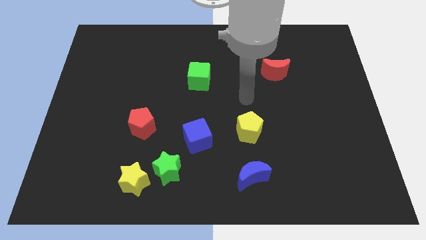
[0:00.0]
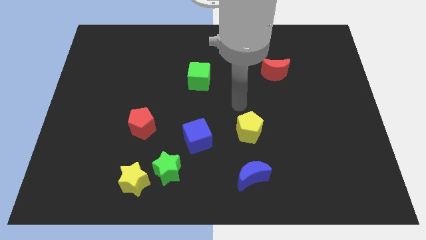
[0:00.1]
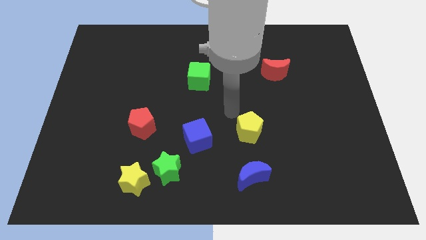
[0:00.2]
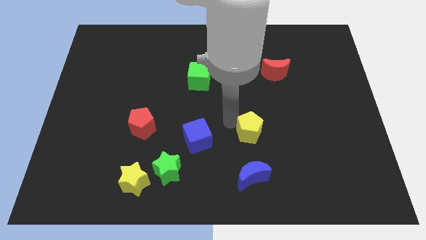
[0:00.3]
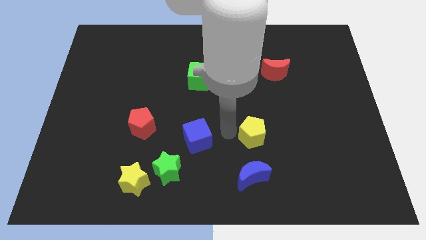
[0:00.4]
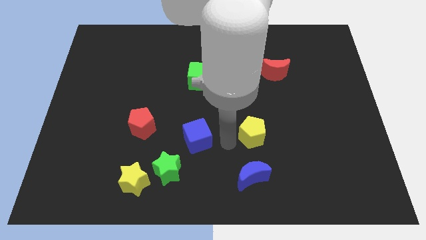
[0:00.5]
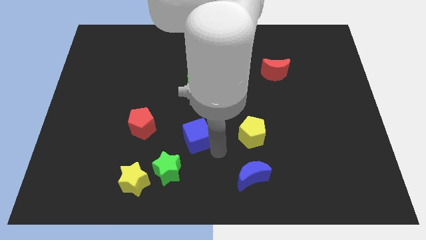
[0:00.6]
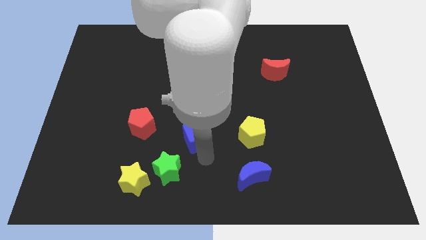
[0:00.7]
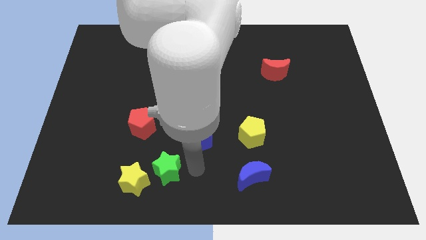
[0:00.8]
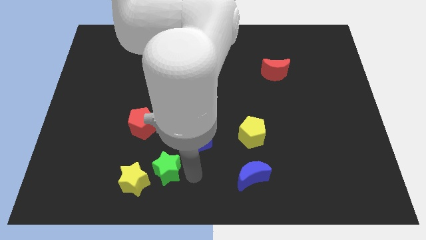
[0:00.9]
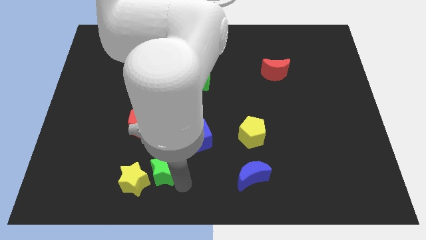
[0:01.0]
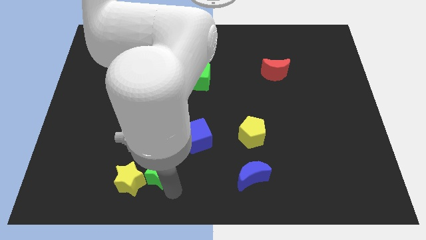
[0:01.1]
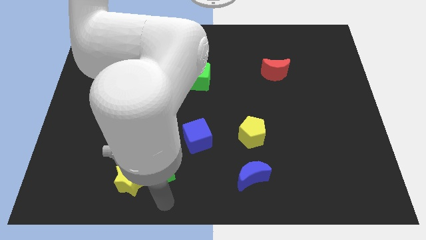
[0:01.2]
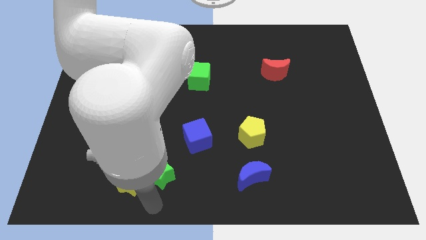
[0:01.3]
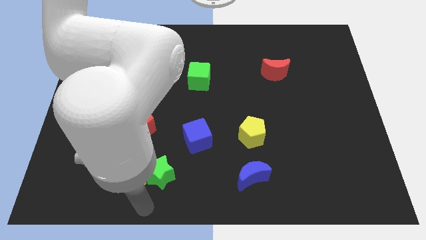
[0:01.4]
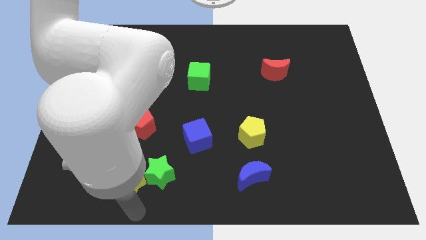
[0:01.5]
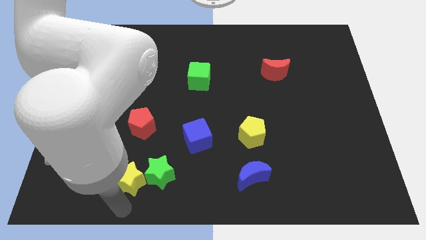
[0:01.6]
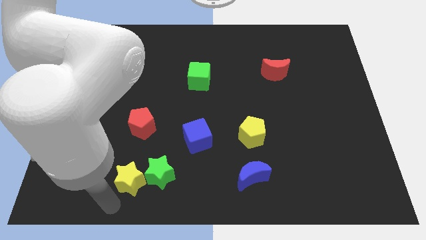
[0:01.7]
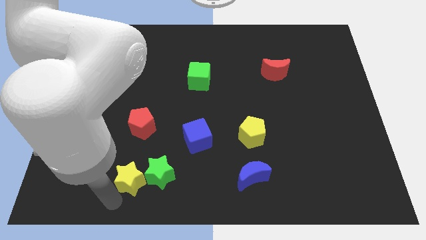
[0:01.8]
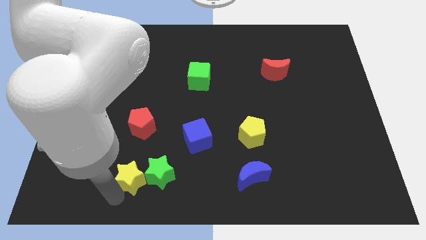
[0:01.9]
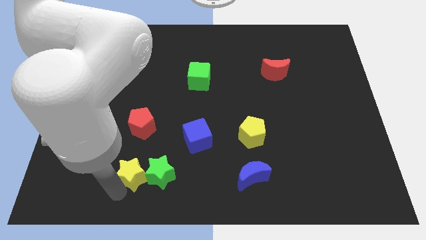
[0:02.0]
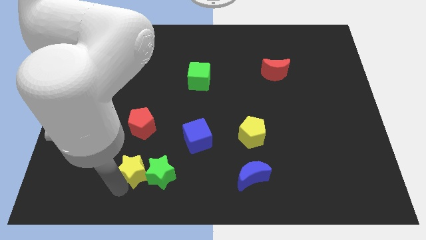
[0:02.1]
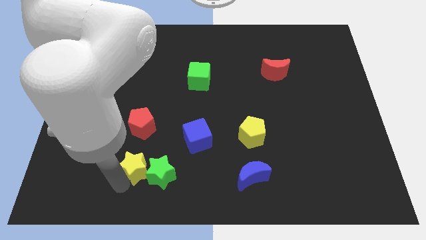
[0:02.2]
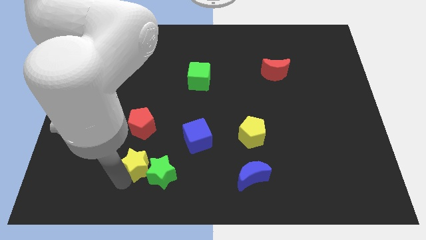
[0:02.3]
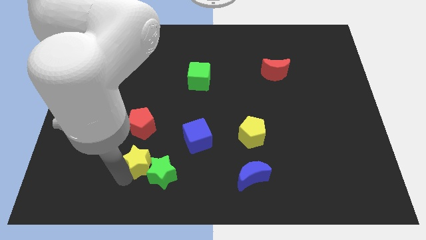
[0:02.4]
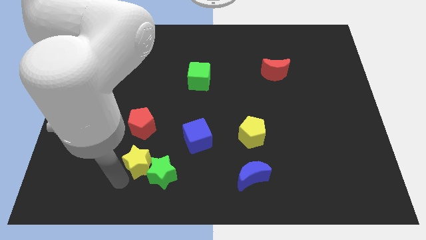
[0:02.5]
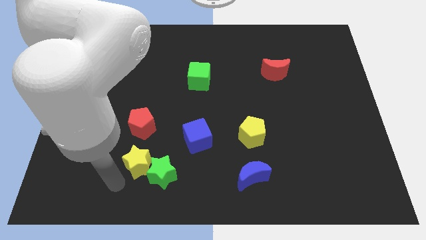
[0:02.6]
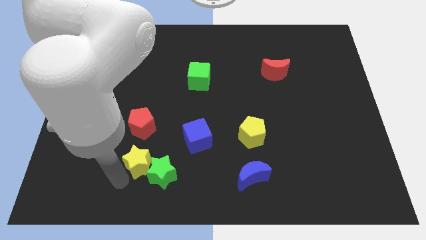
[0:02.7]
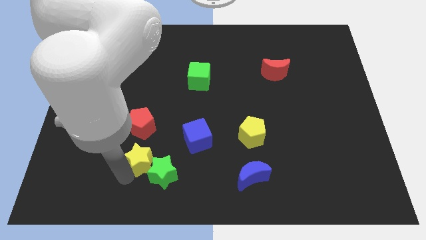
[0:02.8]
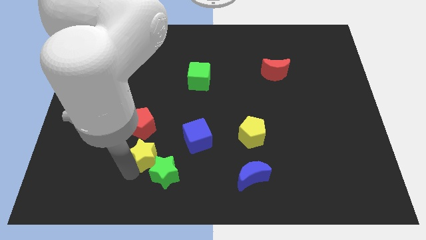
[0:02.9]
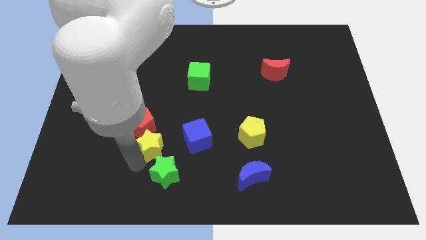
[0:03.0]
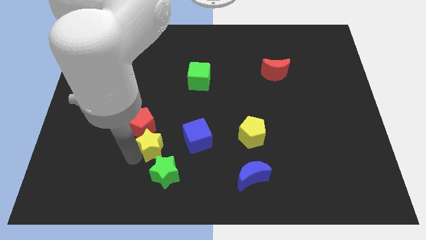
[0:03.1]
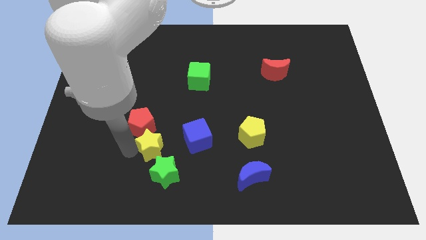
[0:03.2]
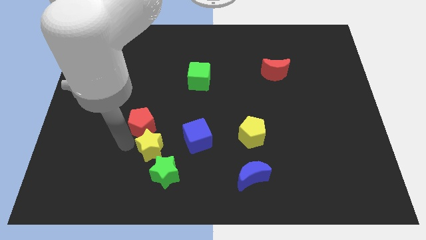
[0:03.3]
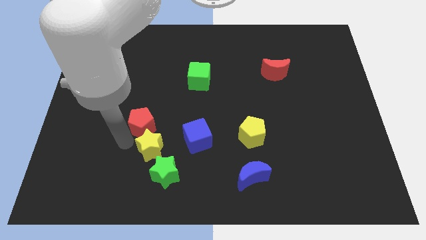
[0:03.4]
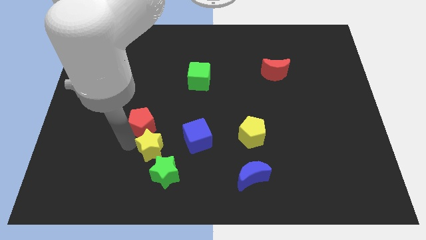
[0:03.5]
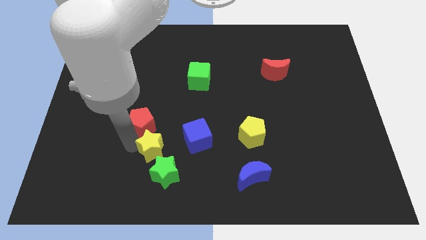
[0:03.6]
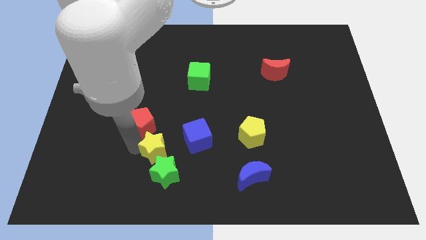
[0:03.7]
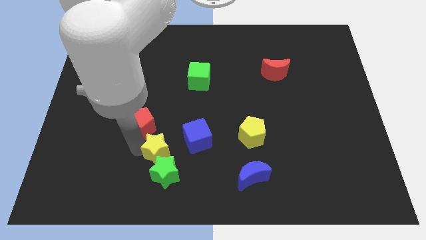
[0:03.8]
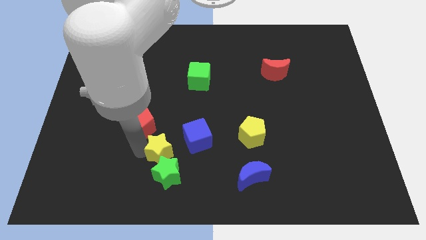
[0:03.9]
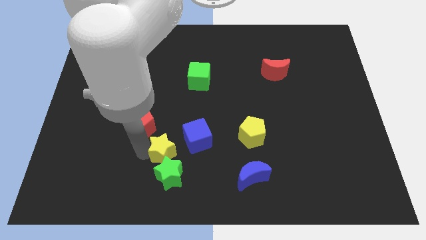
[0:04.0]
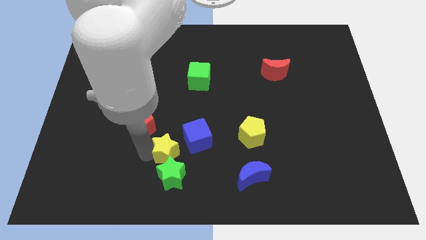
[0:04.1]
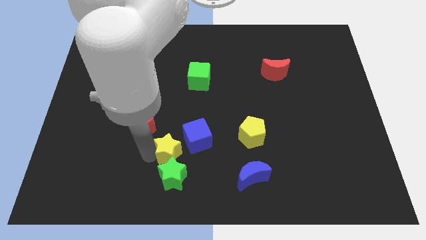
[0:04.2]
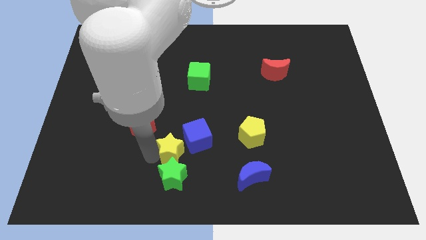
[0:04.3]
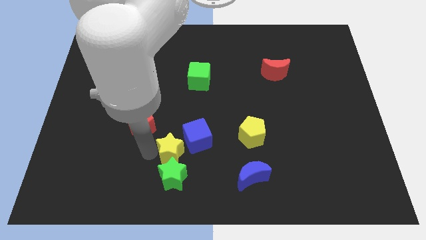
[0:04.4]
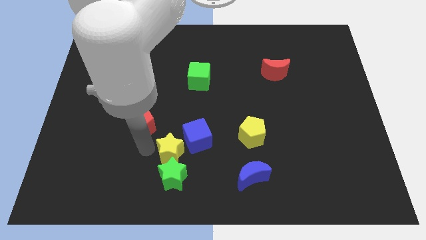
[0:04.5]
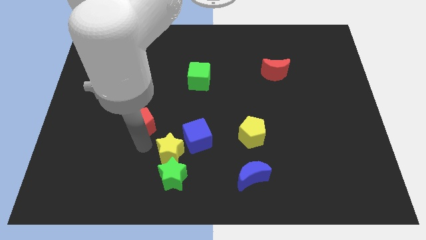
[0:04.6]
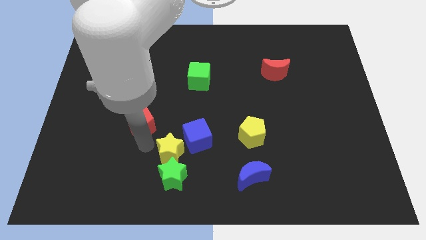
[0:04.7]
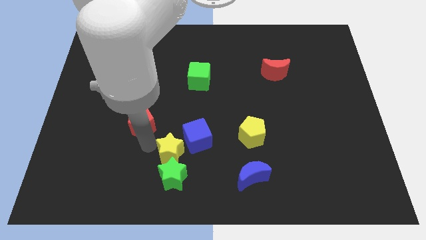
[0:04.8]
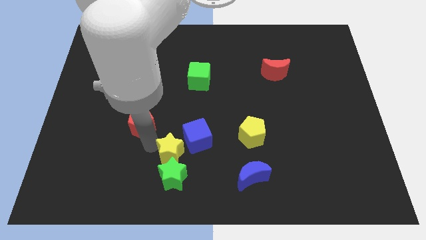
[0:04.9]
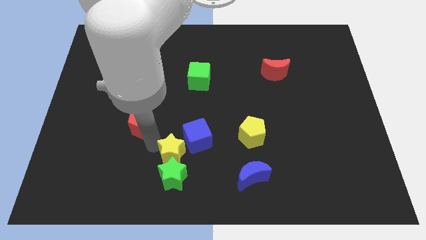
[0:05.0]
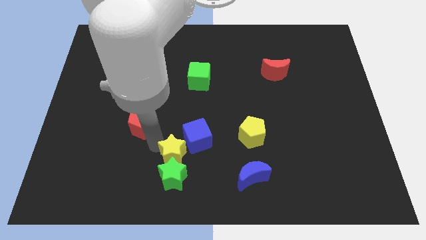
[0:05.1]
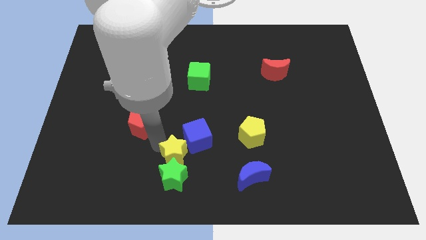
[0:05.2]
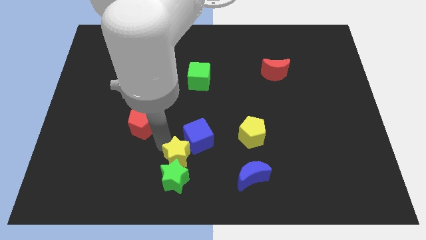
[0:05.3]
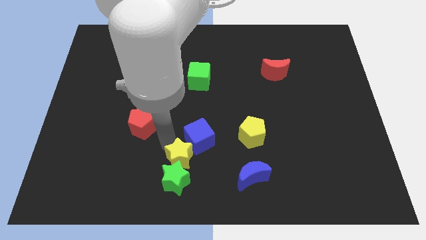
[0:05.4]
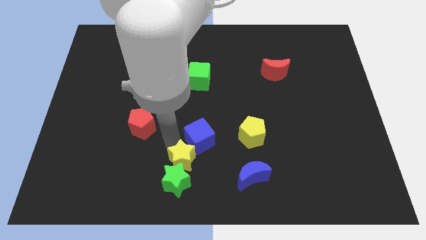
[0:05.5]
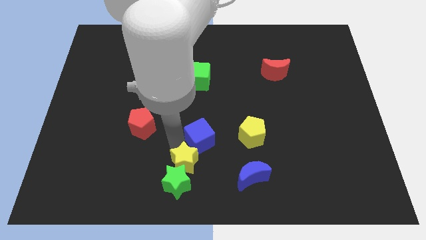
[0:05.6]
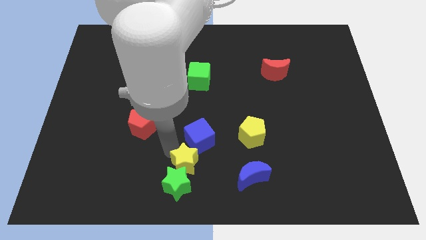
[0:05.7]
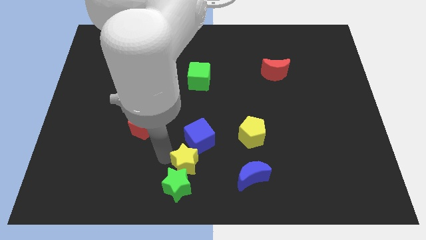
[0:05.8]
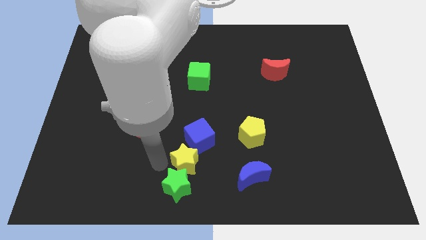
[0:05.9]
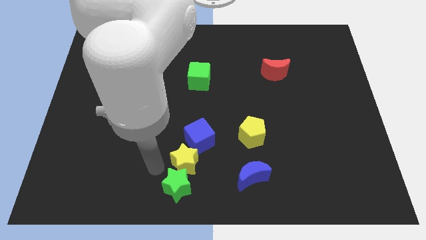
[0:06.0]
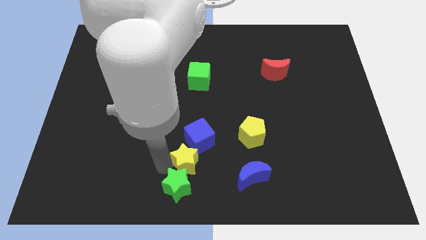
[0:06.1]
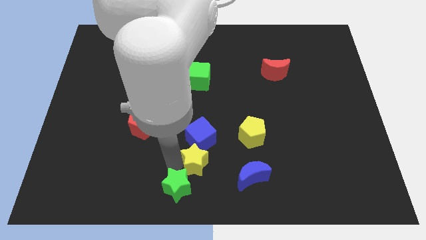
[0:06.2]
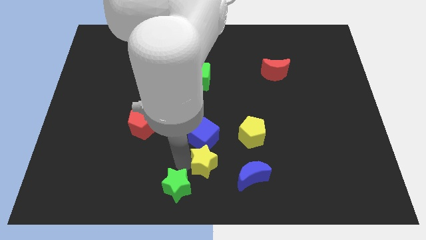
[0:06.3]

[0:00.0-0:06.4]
move the yellow star to the top left side of the blue moon

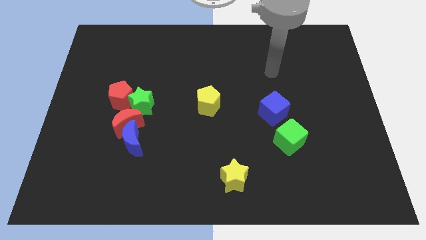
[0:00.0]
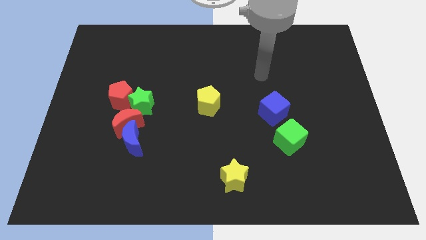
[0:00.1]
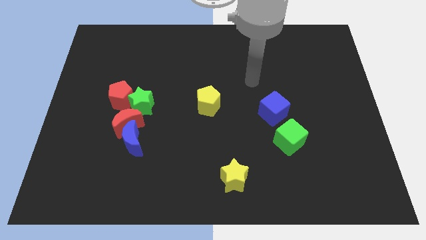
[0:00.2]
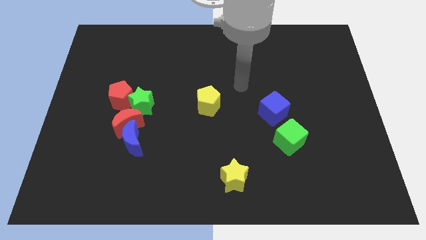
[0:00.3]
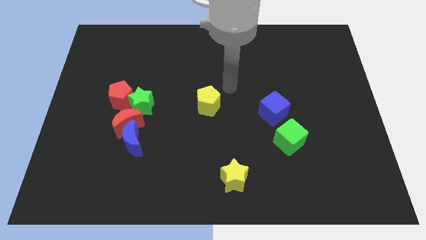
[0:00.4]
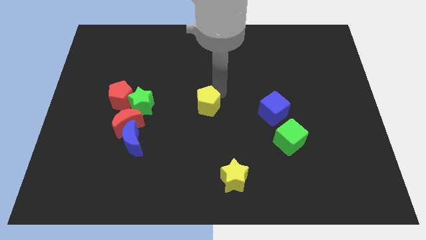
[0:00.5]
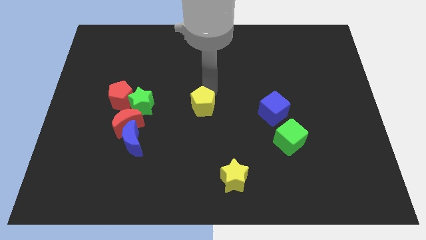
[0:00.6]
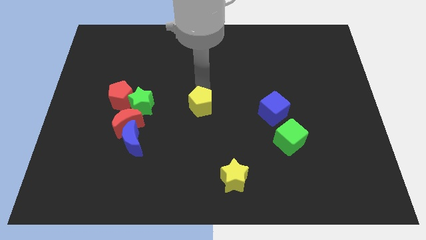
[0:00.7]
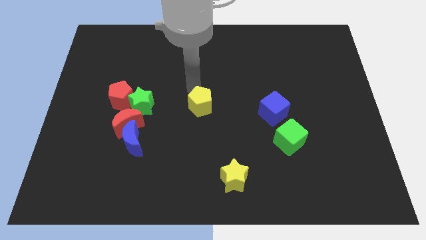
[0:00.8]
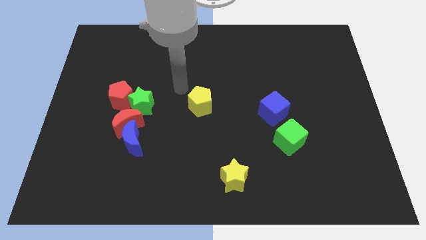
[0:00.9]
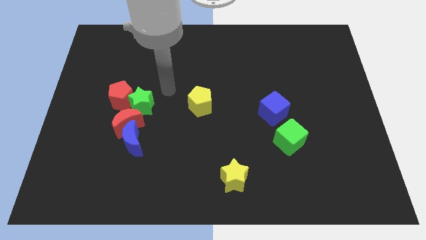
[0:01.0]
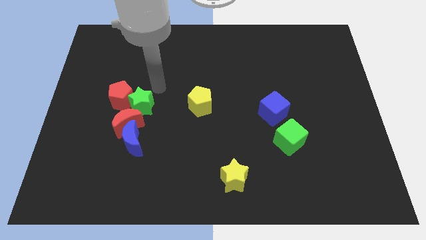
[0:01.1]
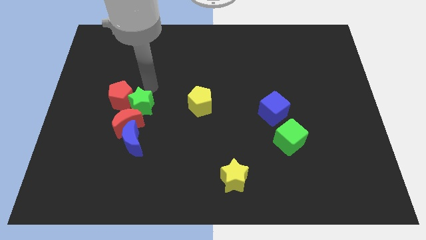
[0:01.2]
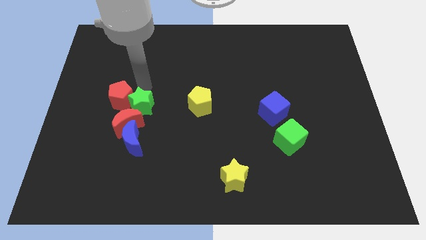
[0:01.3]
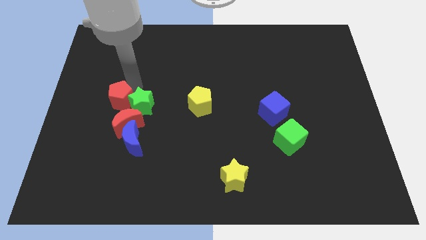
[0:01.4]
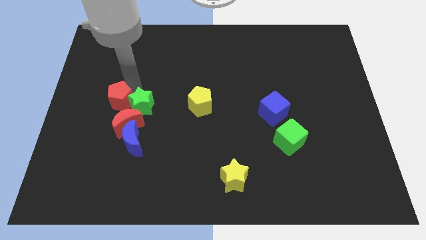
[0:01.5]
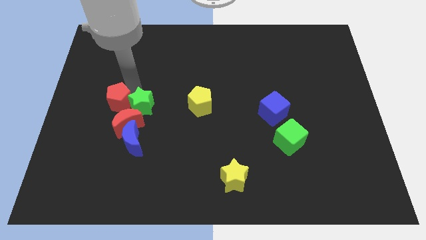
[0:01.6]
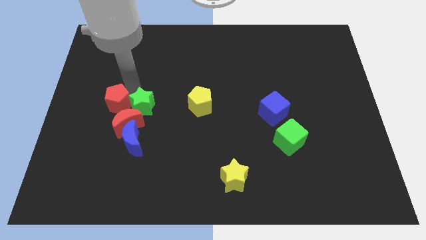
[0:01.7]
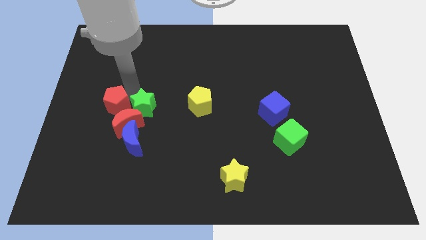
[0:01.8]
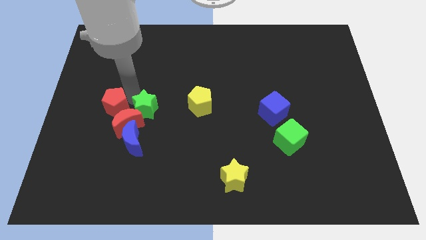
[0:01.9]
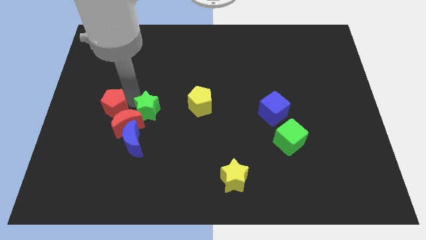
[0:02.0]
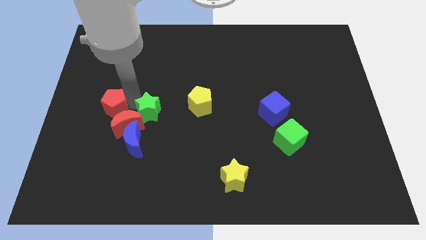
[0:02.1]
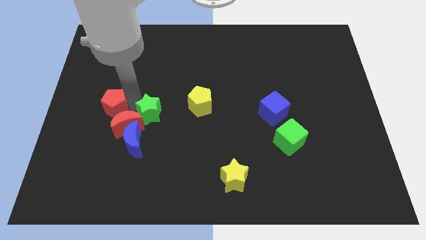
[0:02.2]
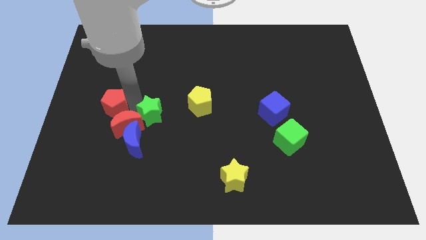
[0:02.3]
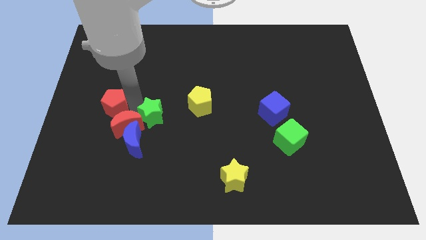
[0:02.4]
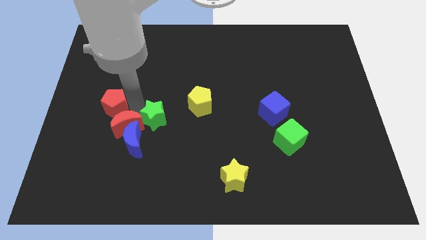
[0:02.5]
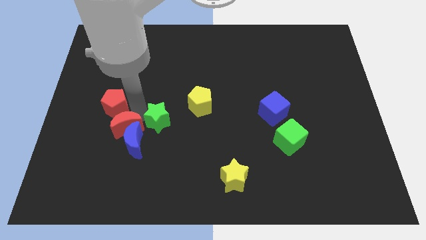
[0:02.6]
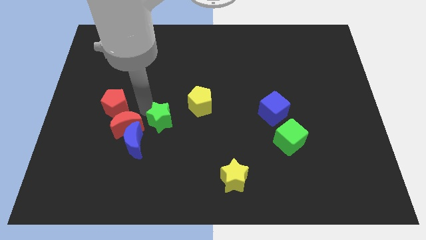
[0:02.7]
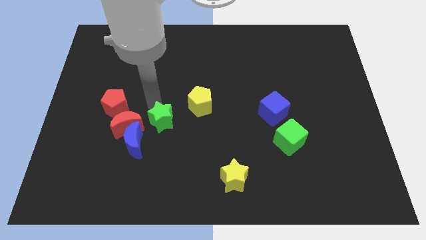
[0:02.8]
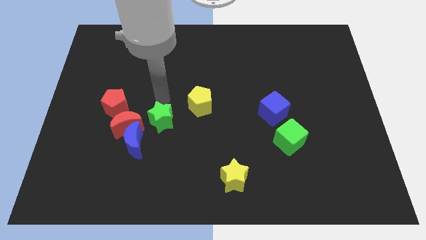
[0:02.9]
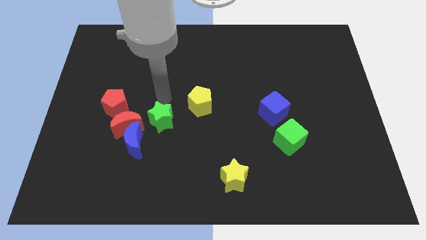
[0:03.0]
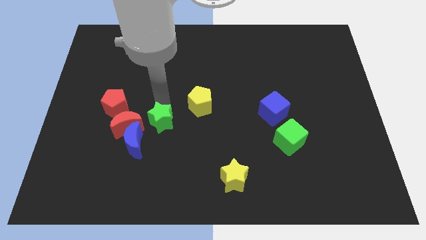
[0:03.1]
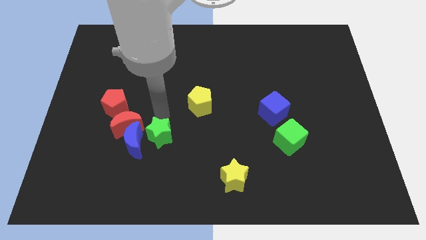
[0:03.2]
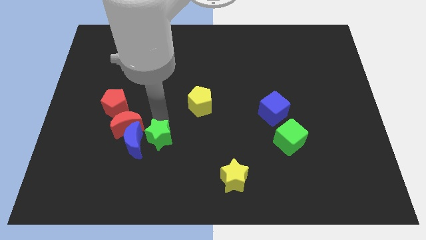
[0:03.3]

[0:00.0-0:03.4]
slide the green star diagonally down and to the right of the blue moon
